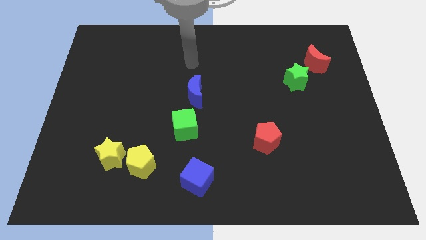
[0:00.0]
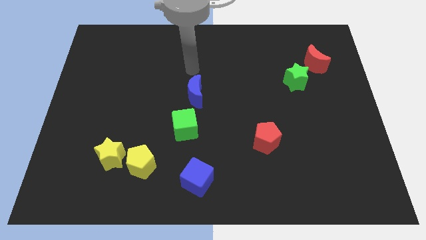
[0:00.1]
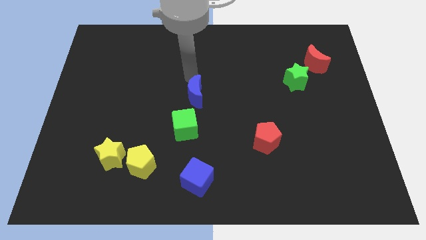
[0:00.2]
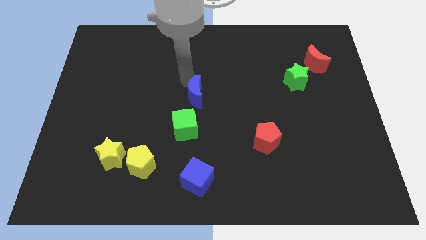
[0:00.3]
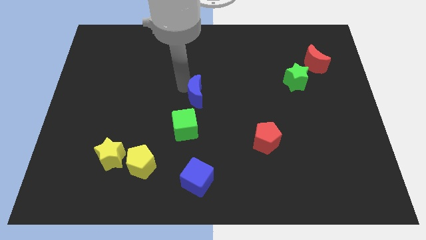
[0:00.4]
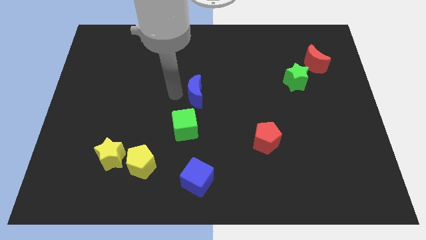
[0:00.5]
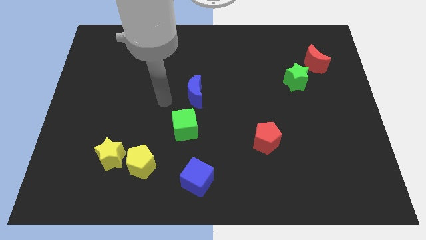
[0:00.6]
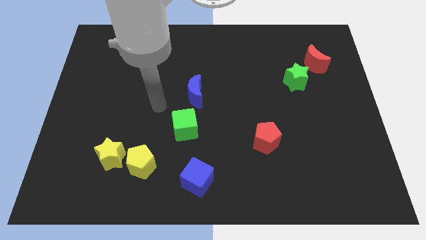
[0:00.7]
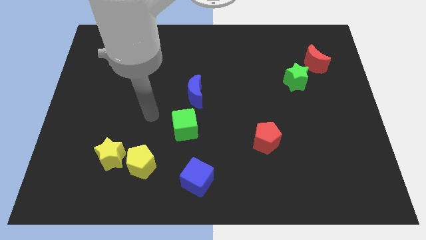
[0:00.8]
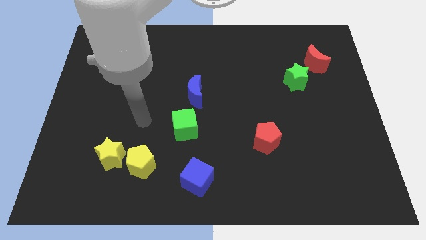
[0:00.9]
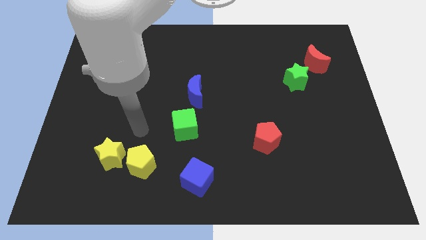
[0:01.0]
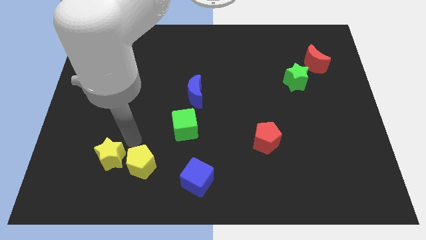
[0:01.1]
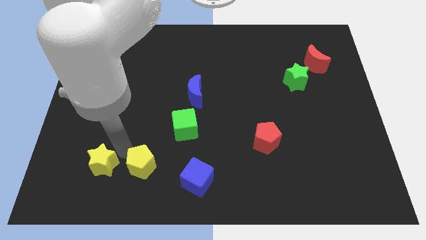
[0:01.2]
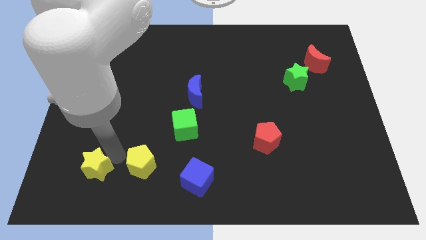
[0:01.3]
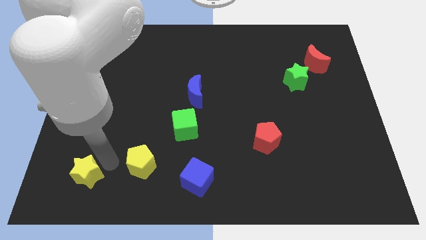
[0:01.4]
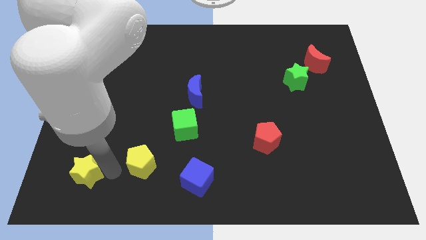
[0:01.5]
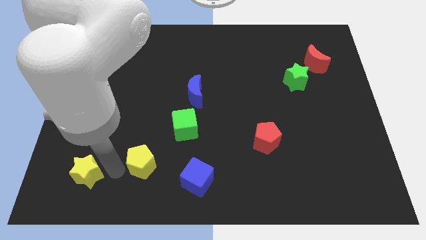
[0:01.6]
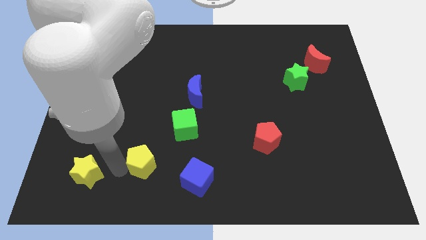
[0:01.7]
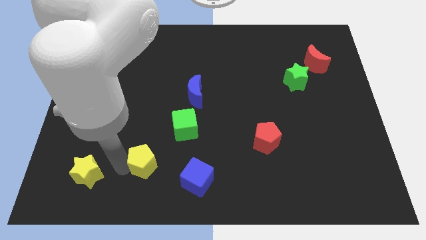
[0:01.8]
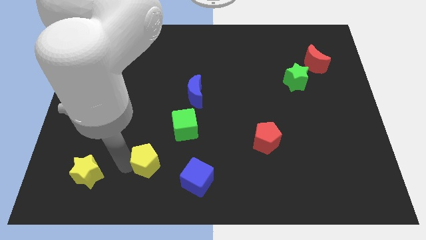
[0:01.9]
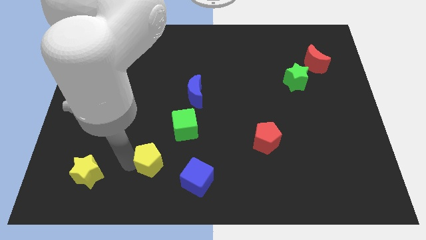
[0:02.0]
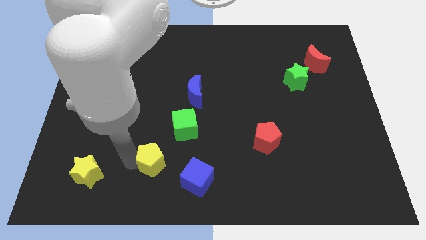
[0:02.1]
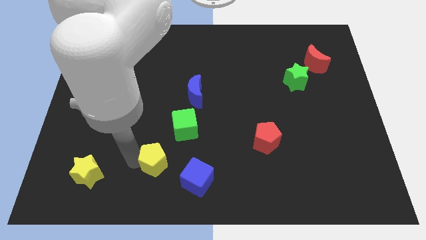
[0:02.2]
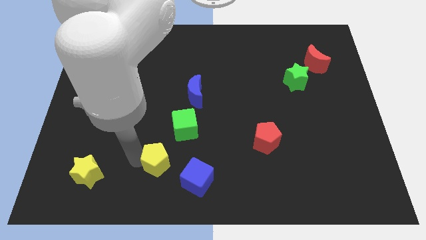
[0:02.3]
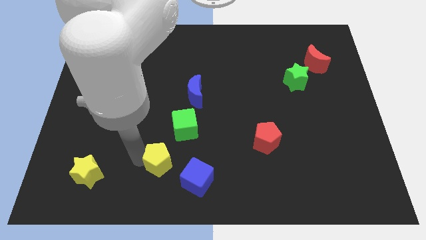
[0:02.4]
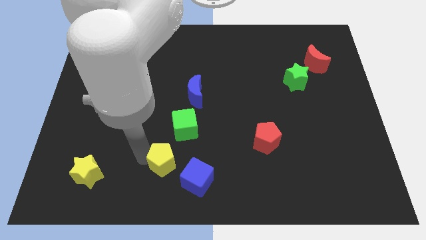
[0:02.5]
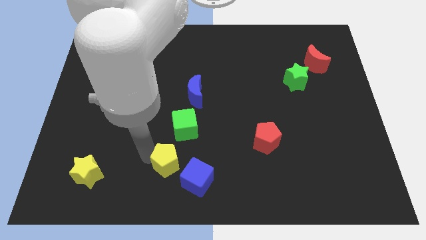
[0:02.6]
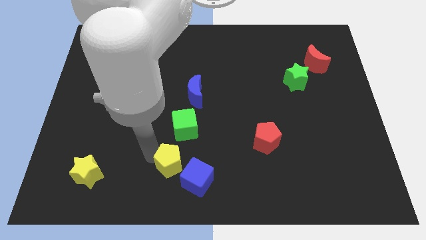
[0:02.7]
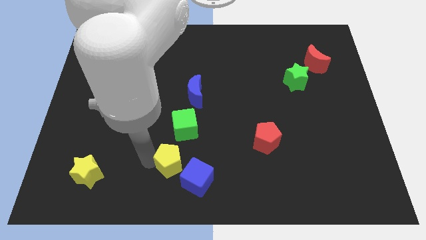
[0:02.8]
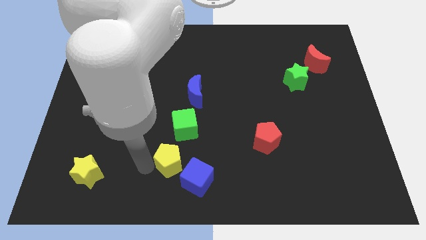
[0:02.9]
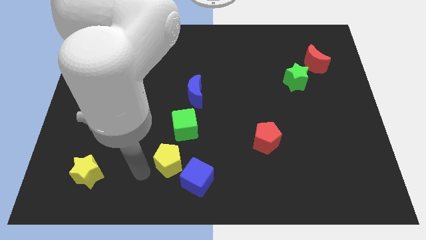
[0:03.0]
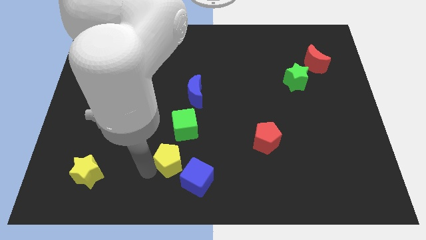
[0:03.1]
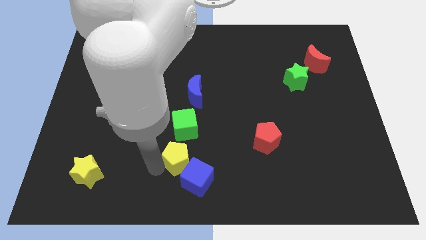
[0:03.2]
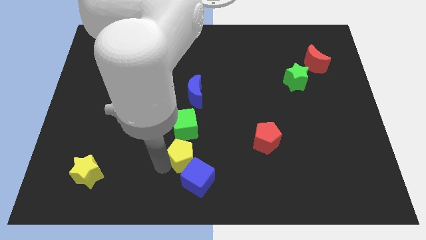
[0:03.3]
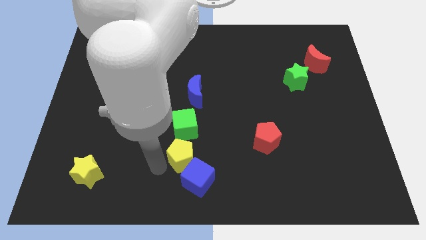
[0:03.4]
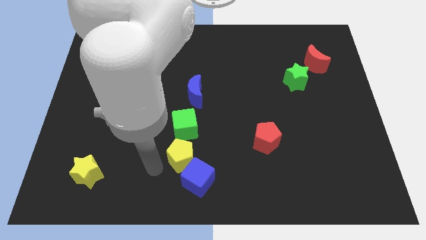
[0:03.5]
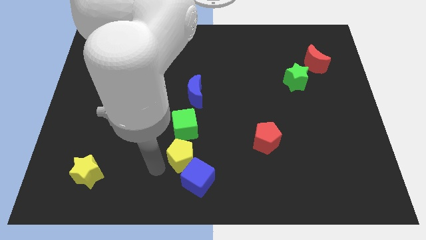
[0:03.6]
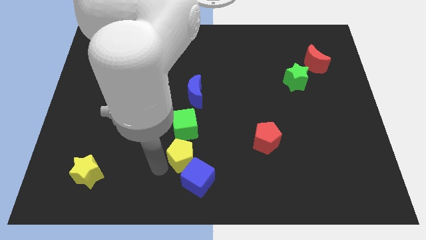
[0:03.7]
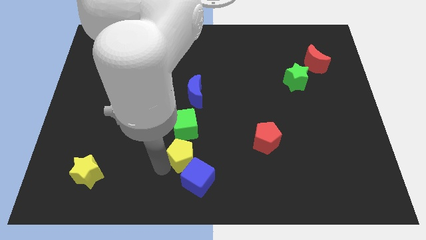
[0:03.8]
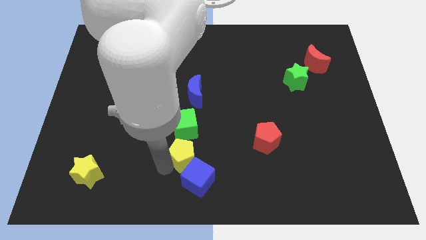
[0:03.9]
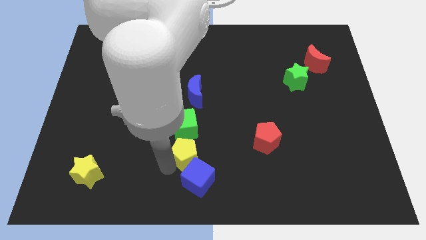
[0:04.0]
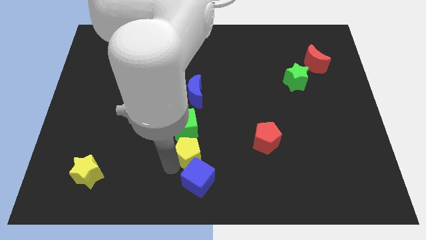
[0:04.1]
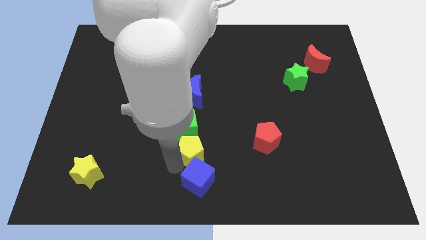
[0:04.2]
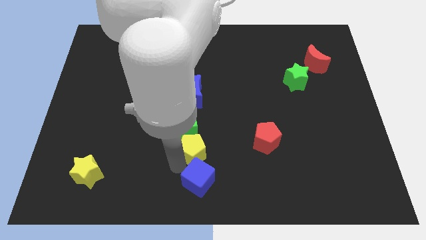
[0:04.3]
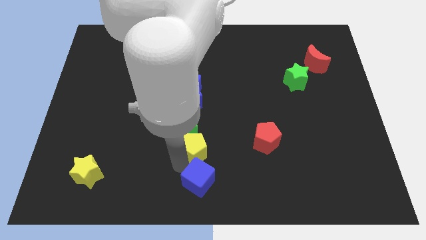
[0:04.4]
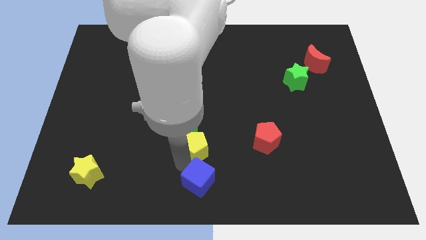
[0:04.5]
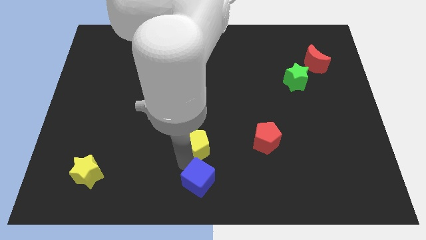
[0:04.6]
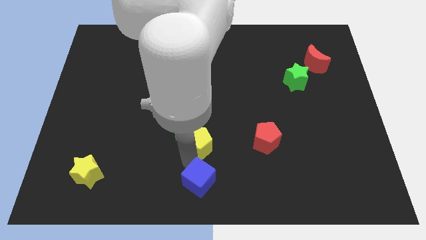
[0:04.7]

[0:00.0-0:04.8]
move the yellow pentagon just right of the green cube

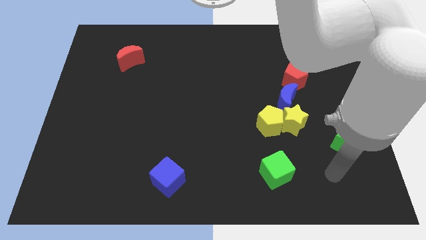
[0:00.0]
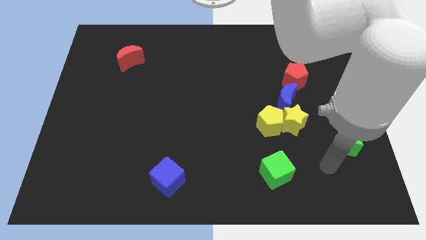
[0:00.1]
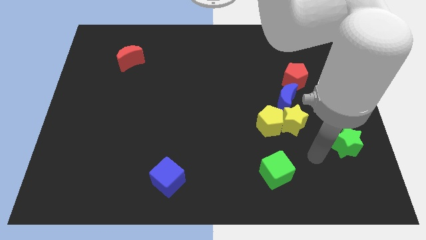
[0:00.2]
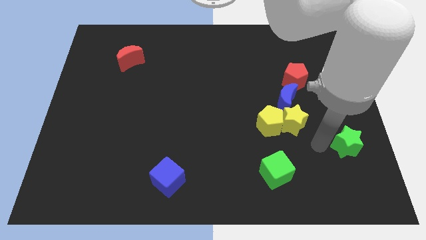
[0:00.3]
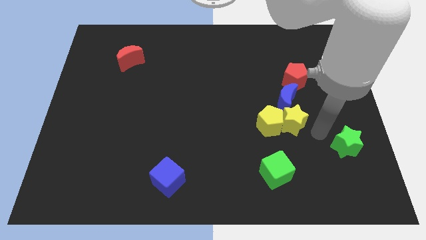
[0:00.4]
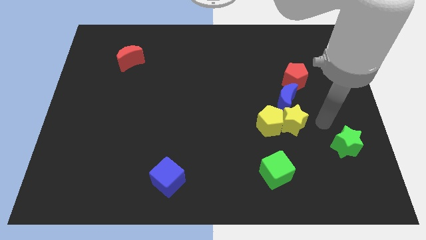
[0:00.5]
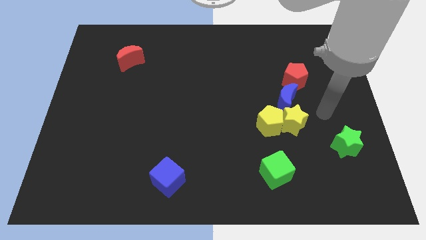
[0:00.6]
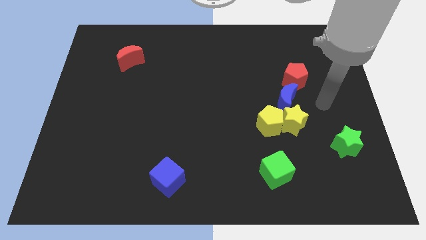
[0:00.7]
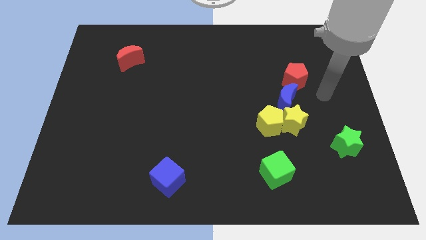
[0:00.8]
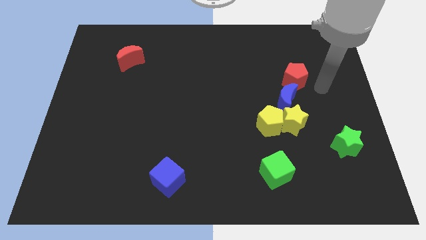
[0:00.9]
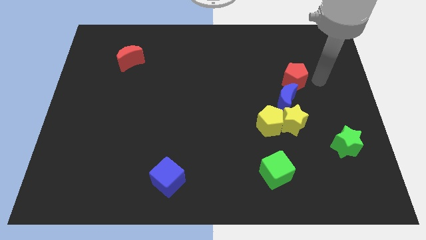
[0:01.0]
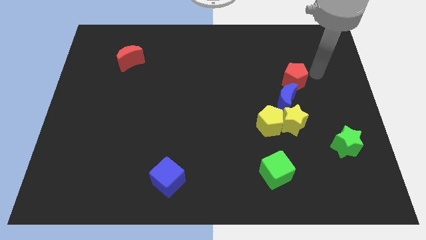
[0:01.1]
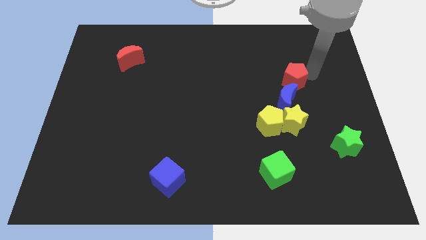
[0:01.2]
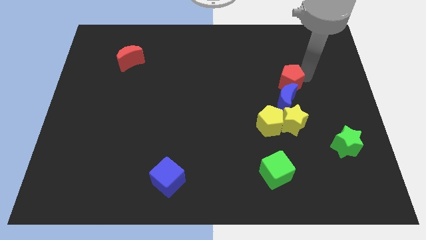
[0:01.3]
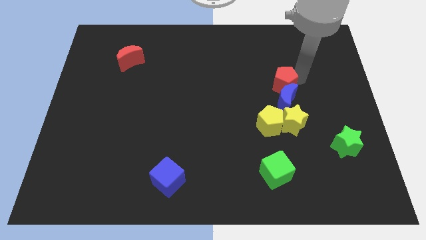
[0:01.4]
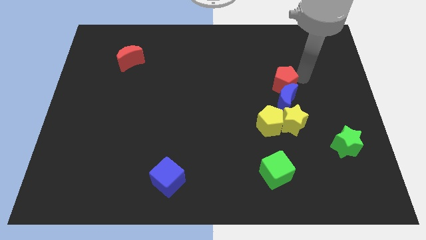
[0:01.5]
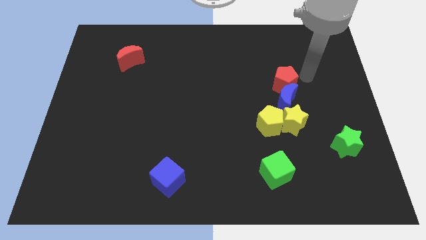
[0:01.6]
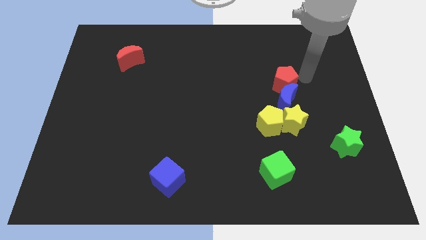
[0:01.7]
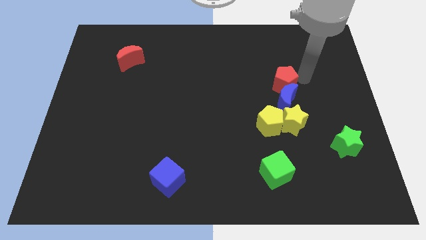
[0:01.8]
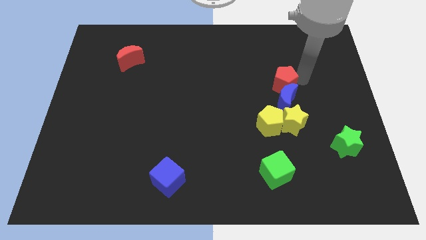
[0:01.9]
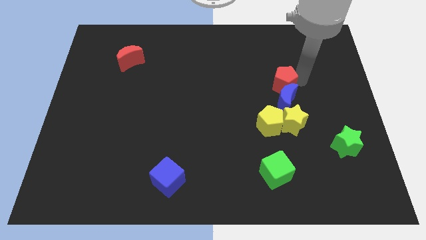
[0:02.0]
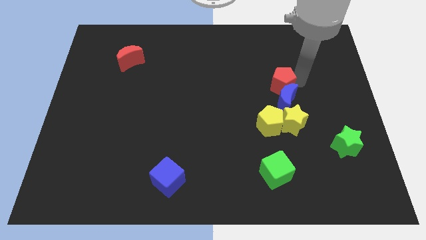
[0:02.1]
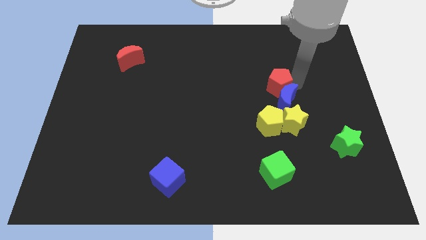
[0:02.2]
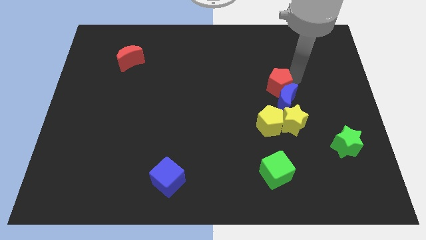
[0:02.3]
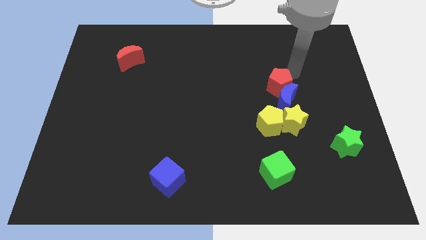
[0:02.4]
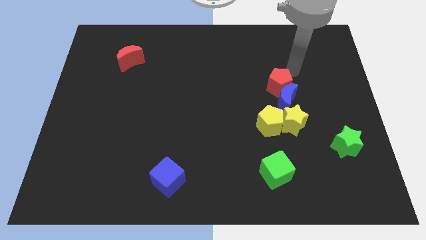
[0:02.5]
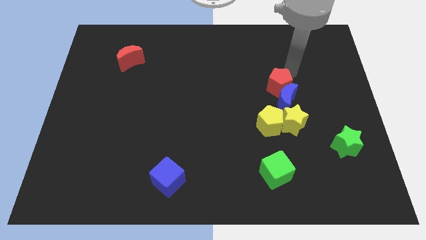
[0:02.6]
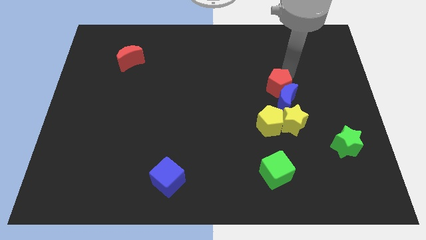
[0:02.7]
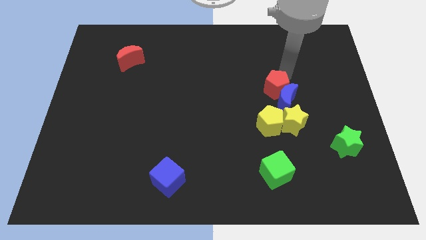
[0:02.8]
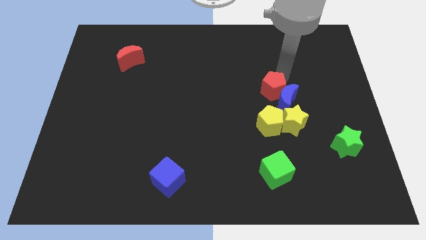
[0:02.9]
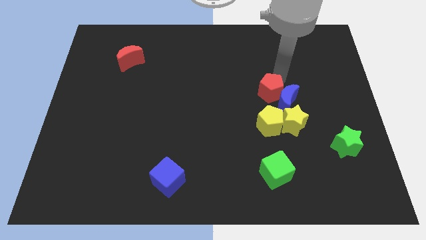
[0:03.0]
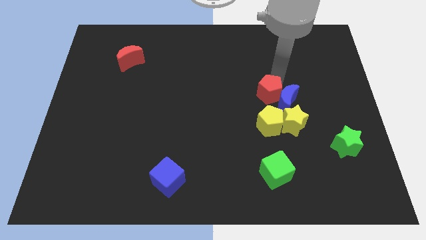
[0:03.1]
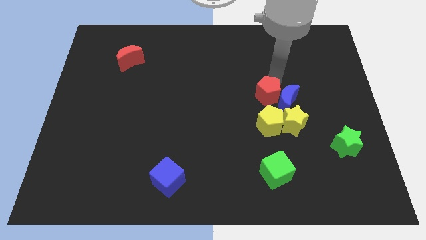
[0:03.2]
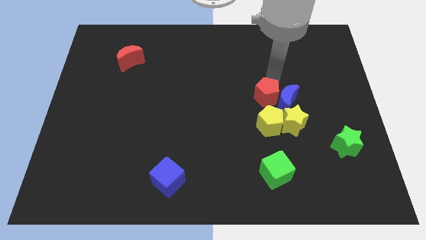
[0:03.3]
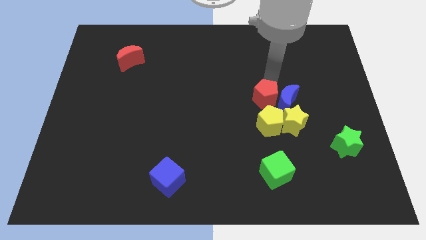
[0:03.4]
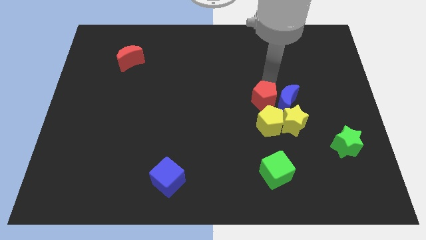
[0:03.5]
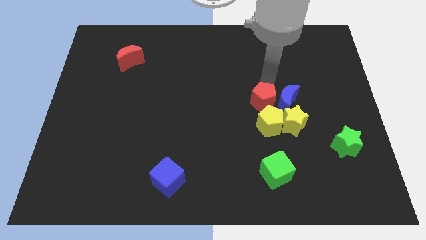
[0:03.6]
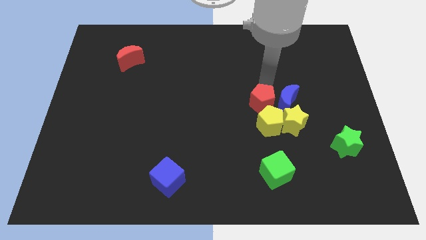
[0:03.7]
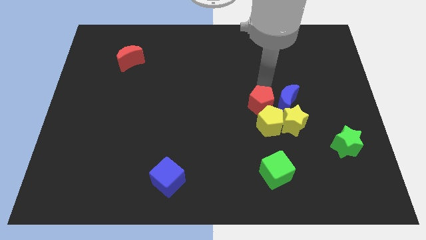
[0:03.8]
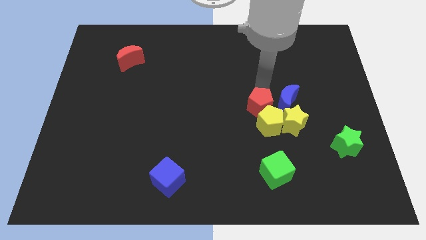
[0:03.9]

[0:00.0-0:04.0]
slide the red pentagon left of the yellow star
